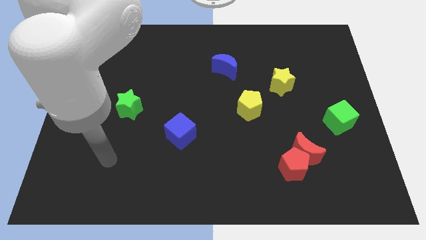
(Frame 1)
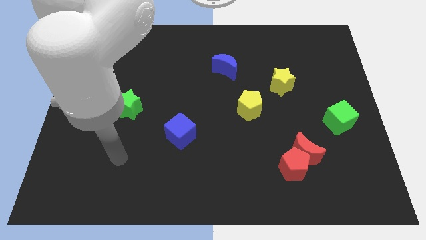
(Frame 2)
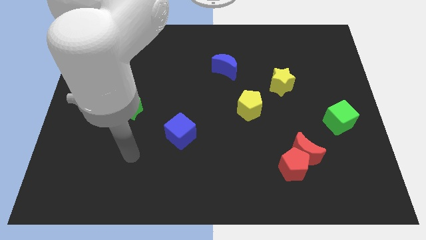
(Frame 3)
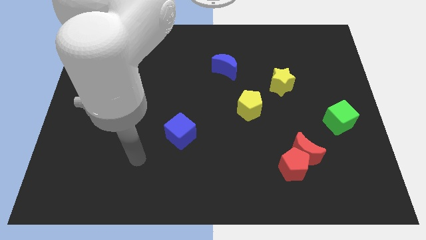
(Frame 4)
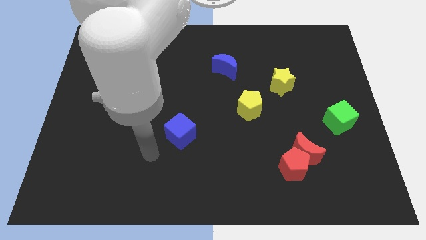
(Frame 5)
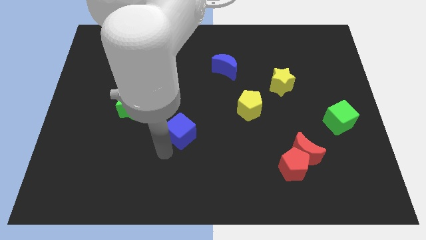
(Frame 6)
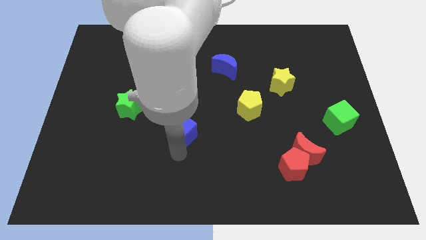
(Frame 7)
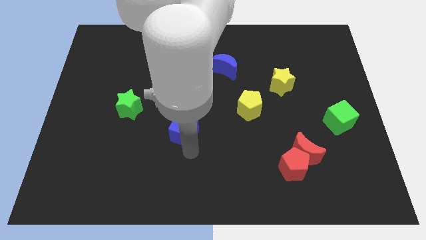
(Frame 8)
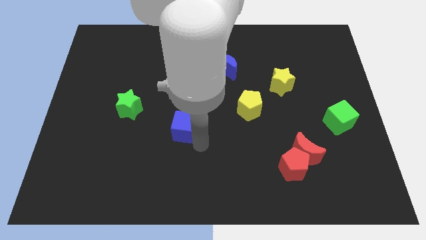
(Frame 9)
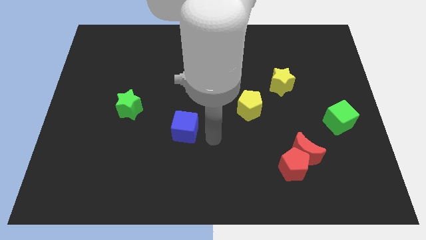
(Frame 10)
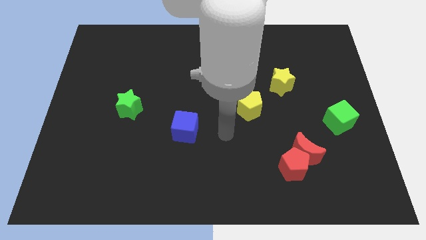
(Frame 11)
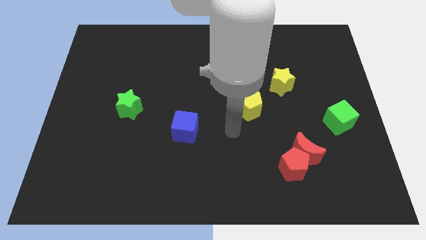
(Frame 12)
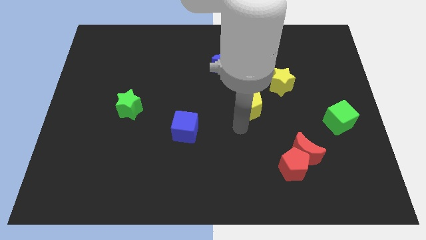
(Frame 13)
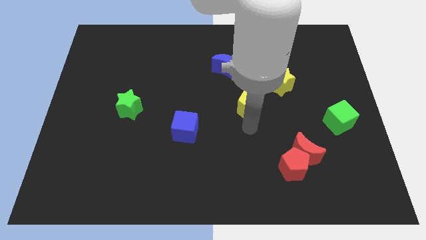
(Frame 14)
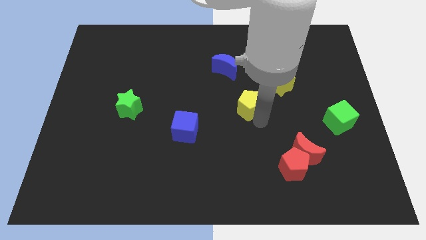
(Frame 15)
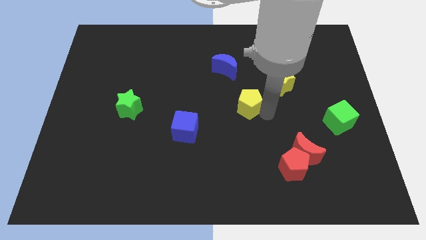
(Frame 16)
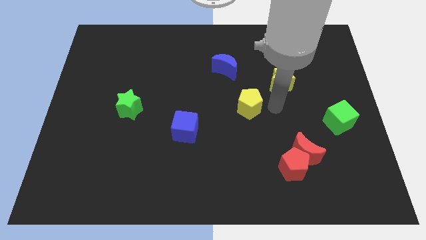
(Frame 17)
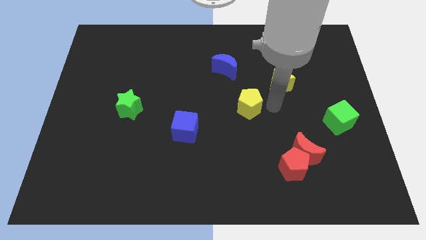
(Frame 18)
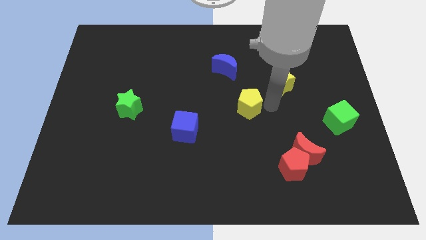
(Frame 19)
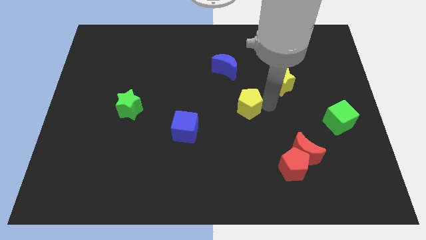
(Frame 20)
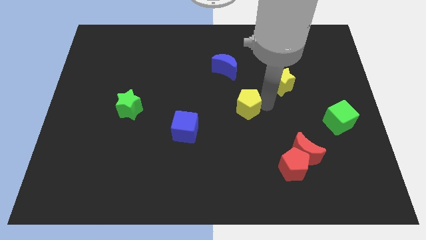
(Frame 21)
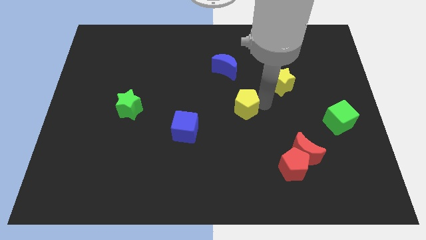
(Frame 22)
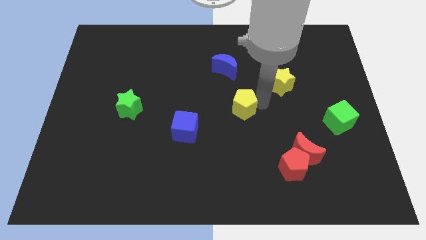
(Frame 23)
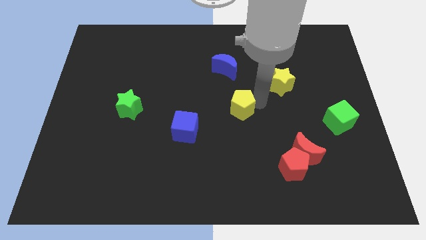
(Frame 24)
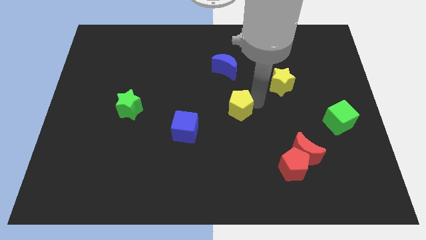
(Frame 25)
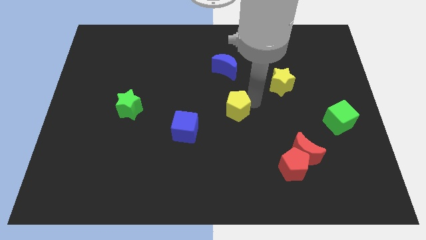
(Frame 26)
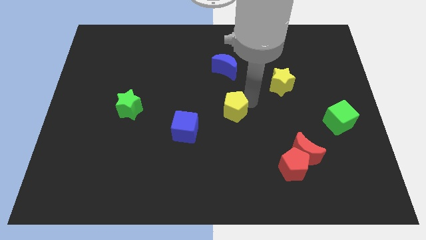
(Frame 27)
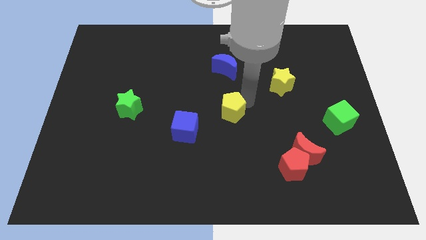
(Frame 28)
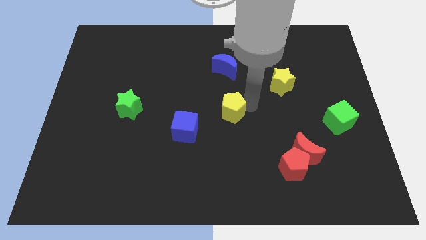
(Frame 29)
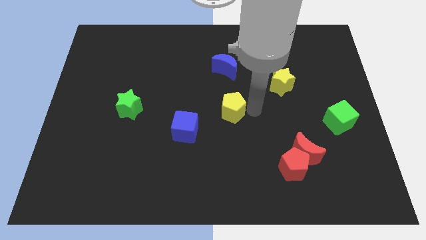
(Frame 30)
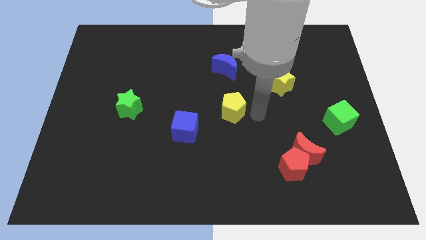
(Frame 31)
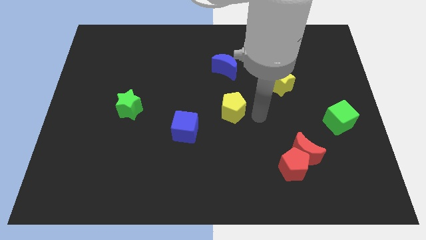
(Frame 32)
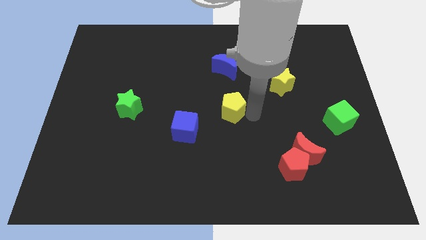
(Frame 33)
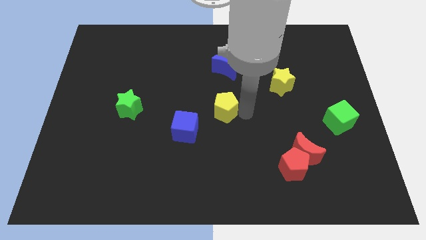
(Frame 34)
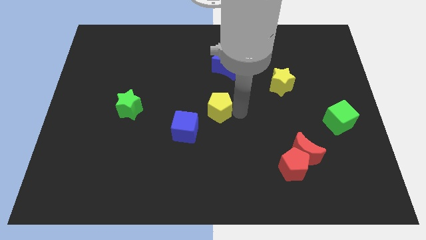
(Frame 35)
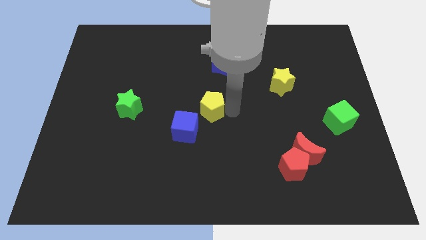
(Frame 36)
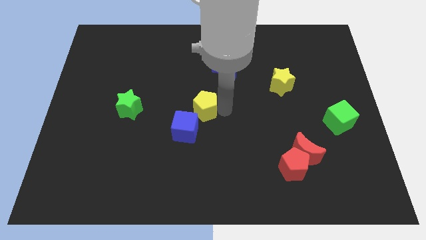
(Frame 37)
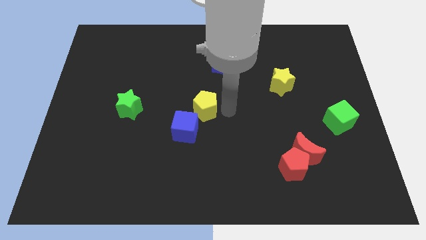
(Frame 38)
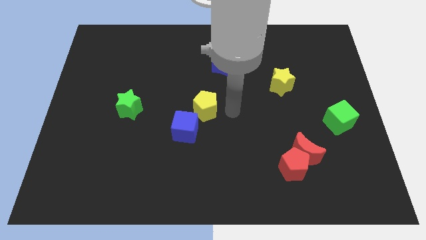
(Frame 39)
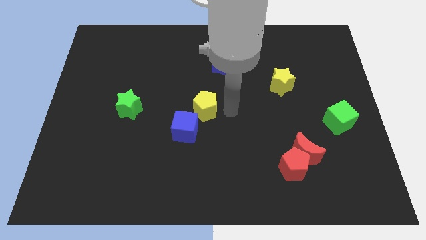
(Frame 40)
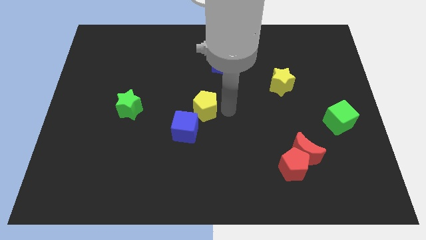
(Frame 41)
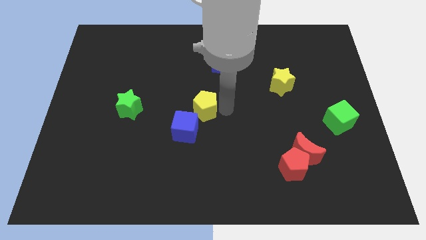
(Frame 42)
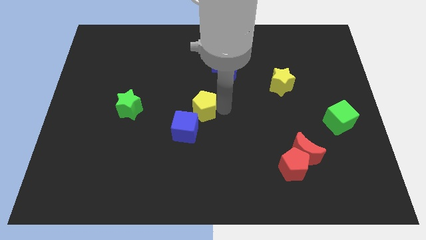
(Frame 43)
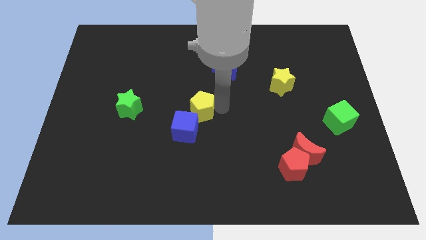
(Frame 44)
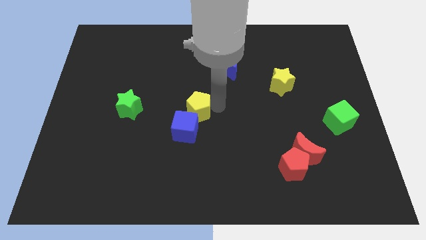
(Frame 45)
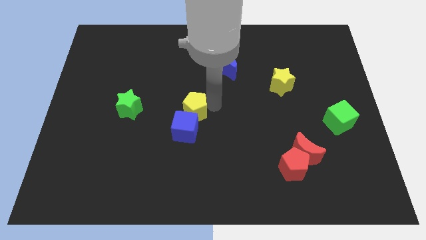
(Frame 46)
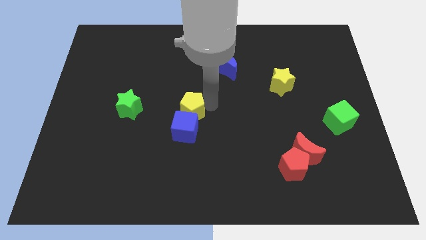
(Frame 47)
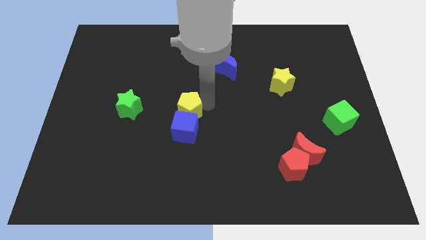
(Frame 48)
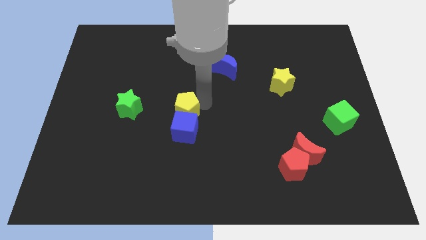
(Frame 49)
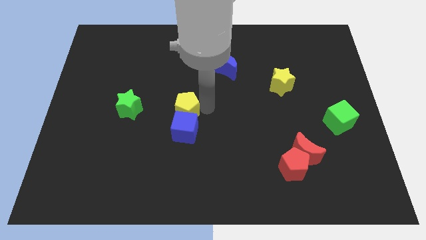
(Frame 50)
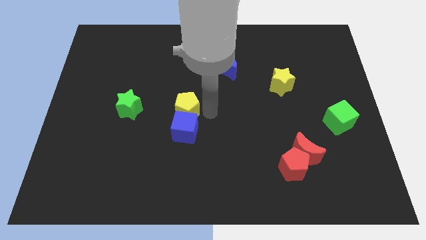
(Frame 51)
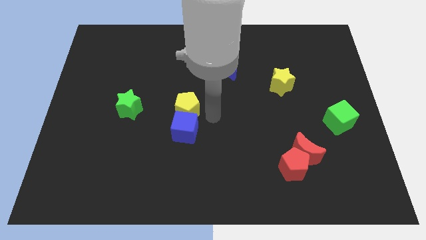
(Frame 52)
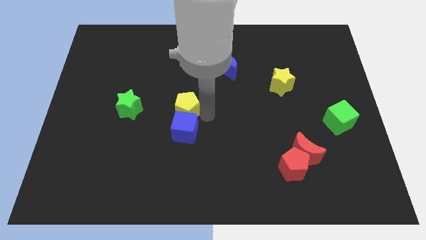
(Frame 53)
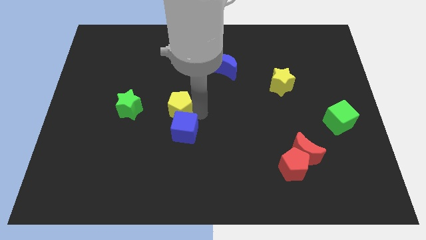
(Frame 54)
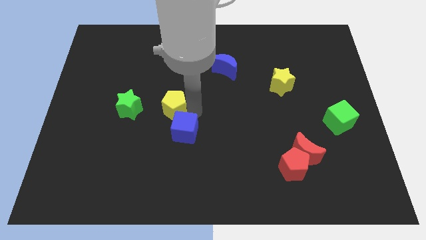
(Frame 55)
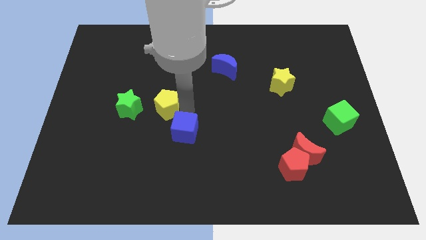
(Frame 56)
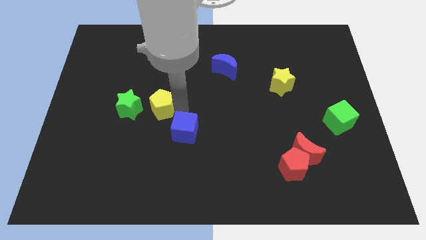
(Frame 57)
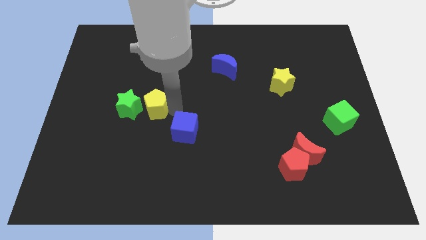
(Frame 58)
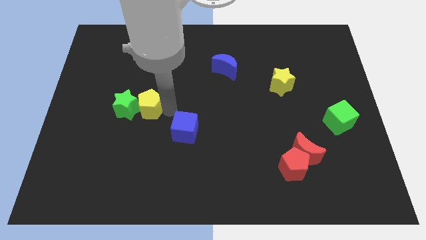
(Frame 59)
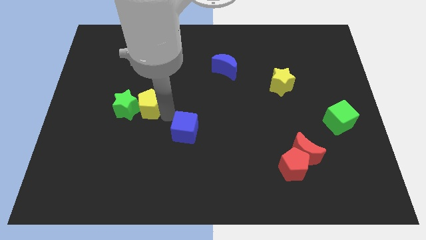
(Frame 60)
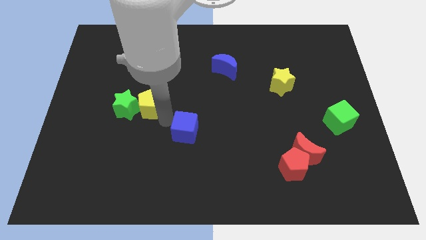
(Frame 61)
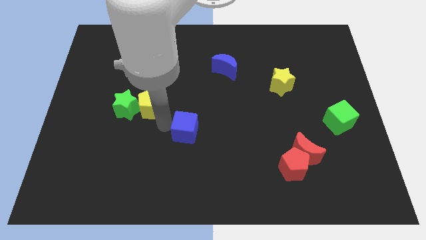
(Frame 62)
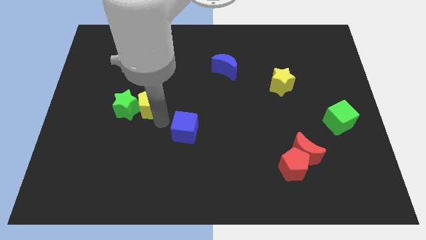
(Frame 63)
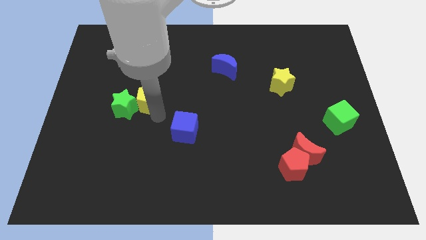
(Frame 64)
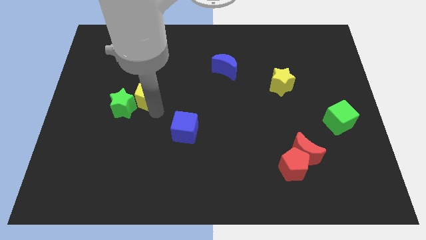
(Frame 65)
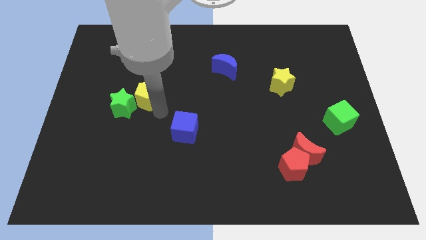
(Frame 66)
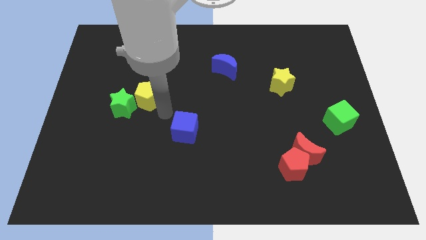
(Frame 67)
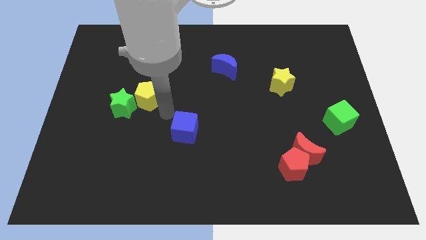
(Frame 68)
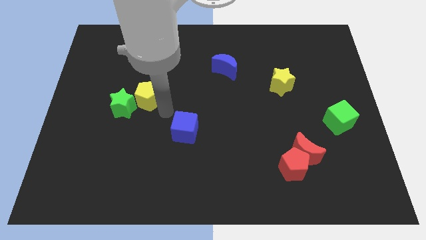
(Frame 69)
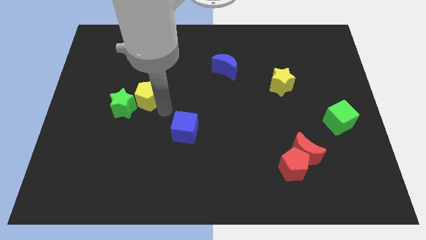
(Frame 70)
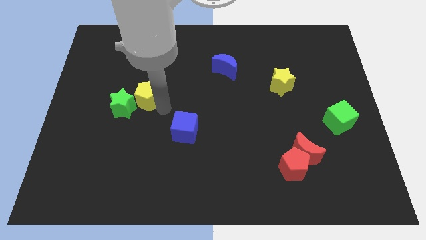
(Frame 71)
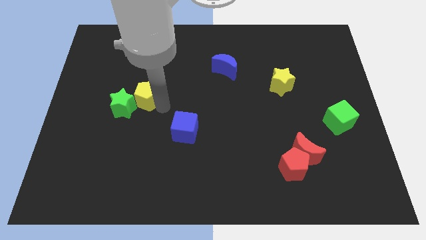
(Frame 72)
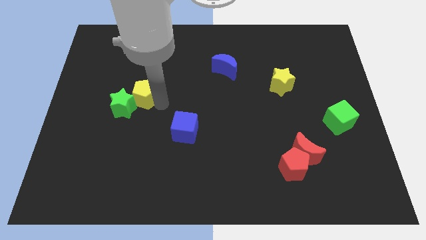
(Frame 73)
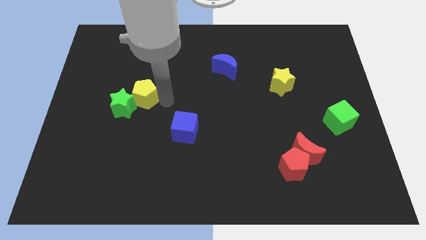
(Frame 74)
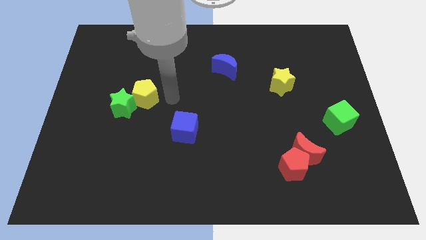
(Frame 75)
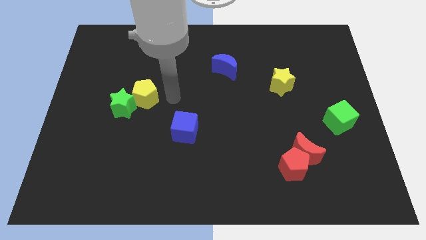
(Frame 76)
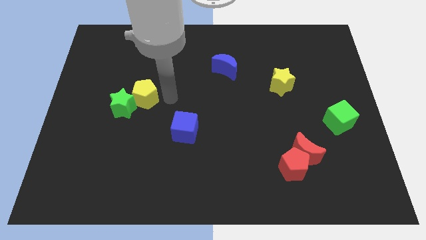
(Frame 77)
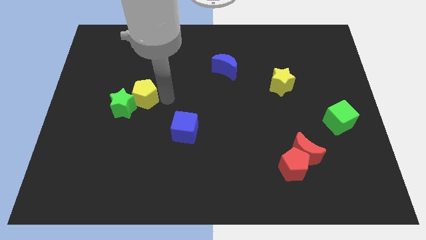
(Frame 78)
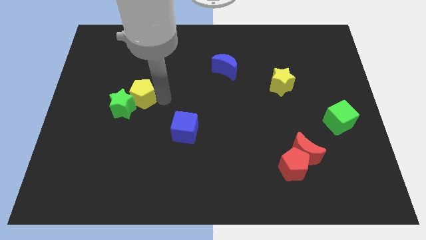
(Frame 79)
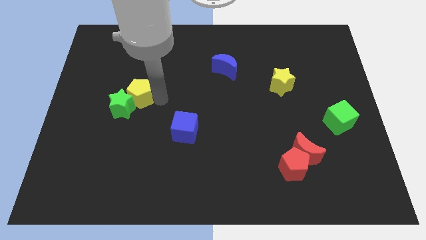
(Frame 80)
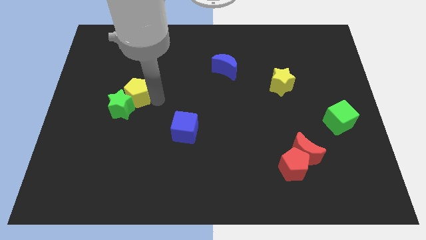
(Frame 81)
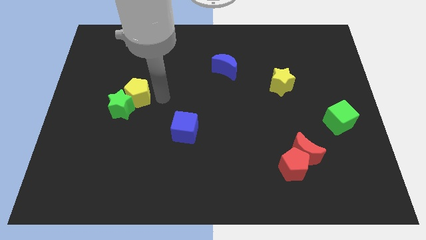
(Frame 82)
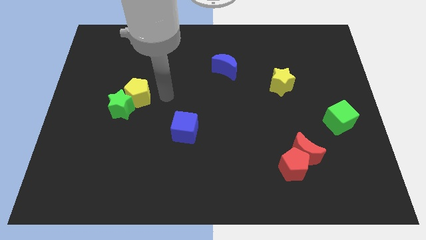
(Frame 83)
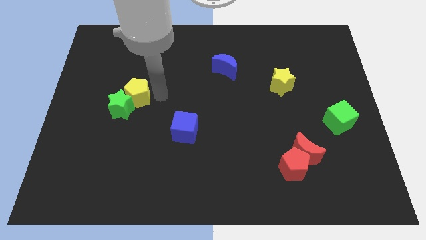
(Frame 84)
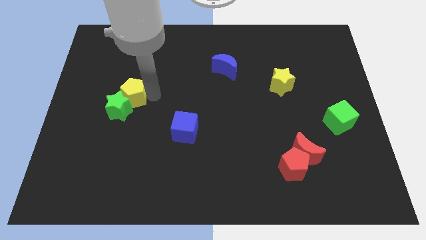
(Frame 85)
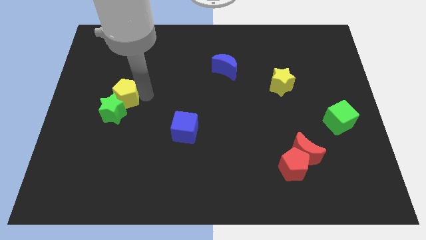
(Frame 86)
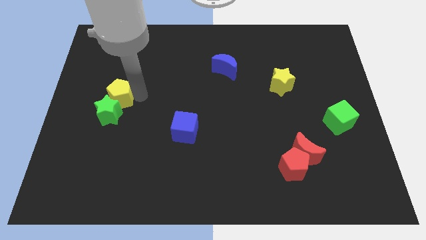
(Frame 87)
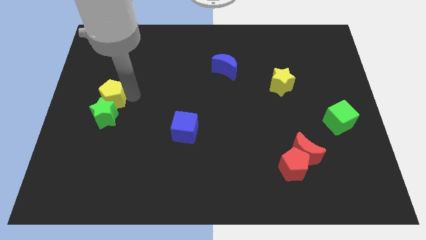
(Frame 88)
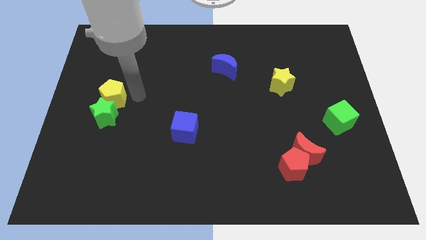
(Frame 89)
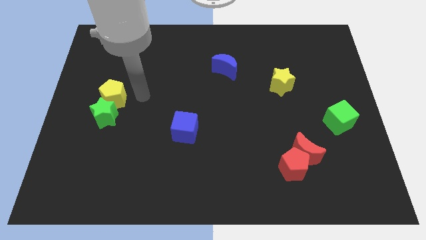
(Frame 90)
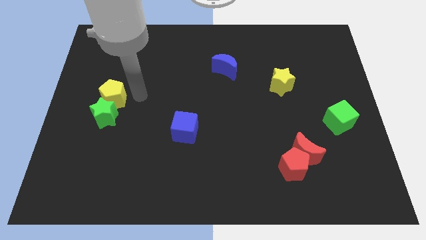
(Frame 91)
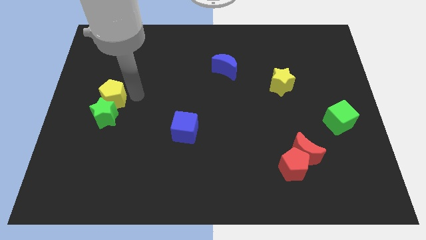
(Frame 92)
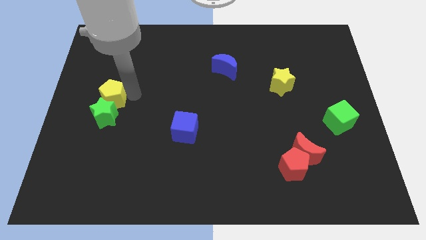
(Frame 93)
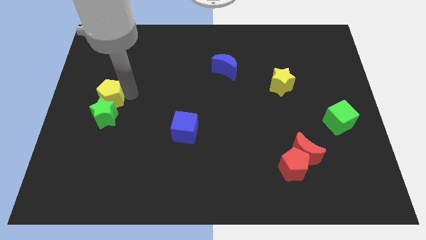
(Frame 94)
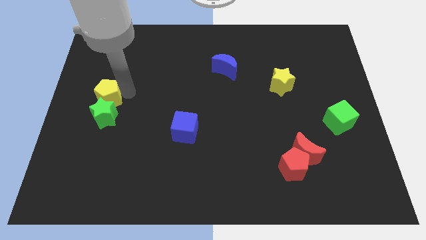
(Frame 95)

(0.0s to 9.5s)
put the yellow pentagon to the left side
